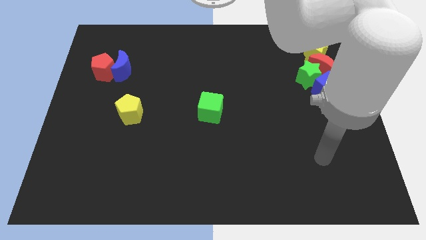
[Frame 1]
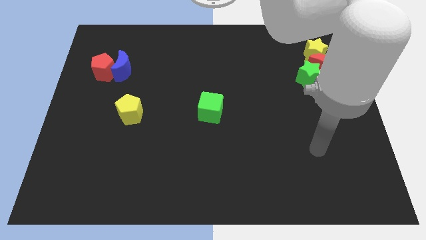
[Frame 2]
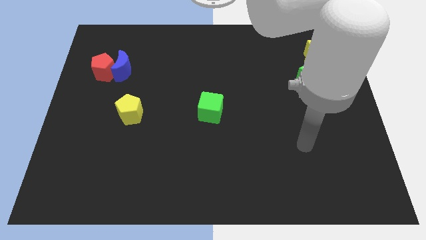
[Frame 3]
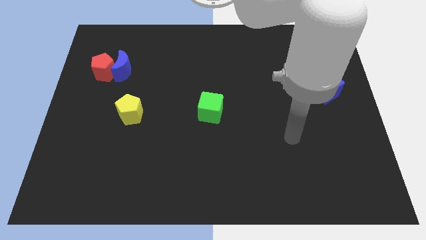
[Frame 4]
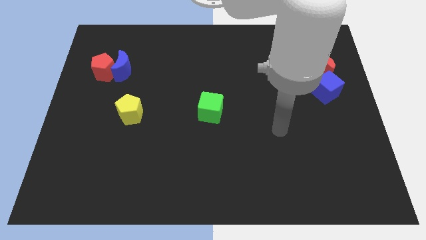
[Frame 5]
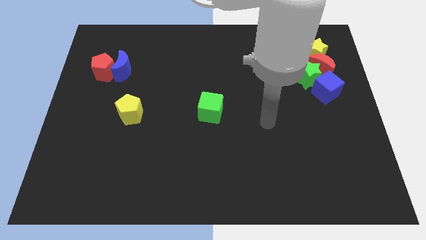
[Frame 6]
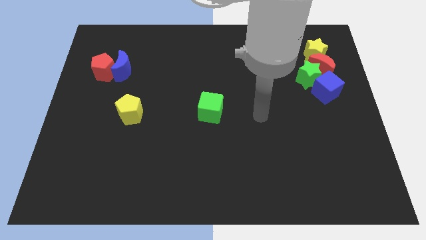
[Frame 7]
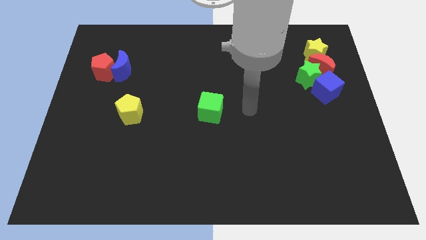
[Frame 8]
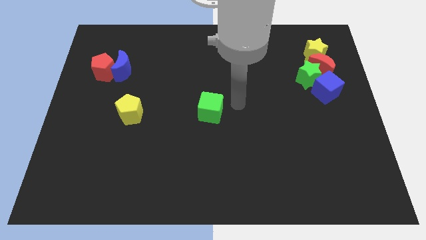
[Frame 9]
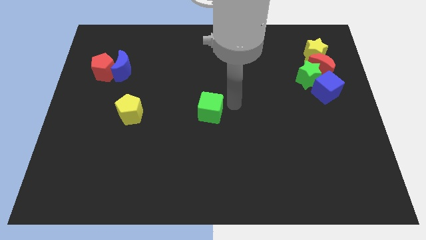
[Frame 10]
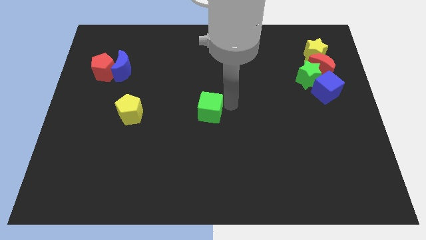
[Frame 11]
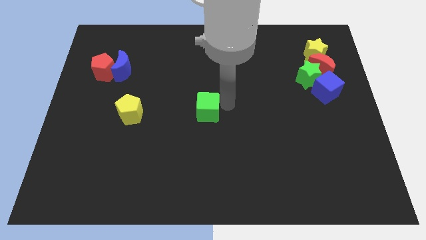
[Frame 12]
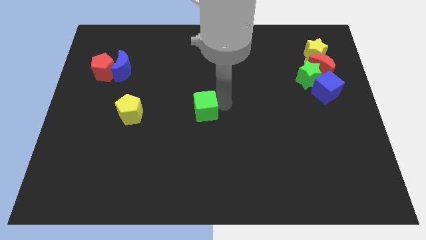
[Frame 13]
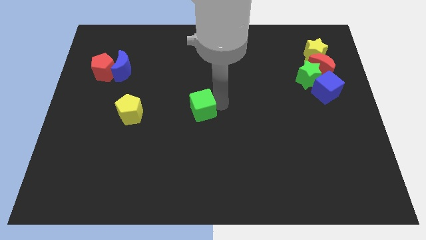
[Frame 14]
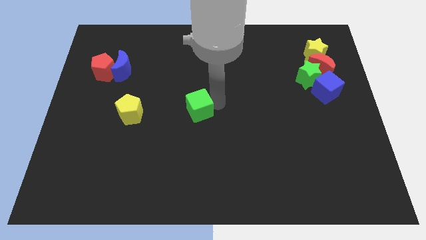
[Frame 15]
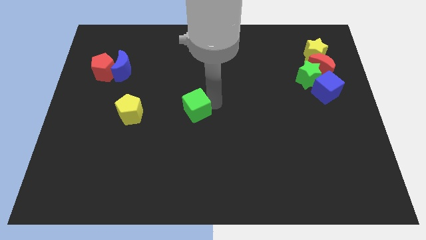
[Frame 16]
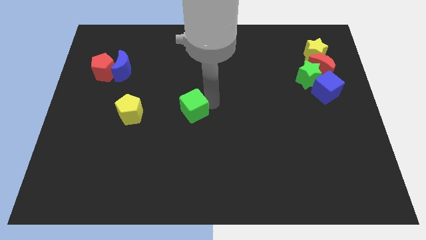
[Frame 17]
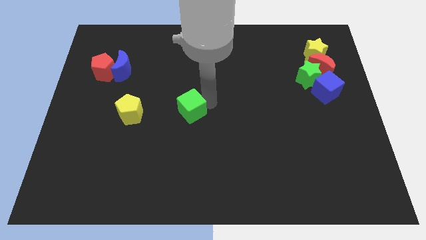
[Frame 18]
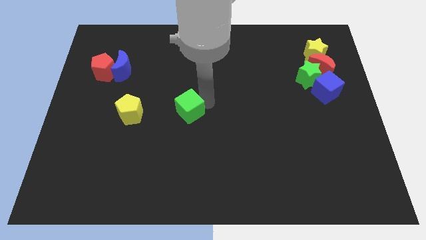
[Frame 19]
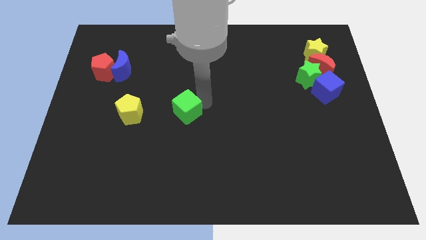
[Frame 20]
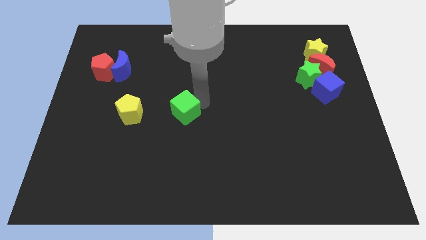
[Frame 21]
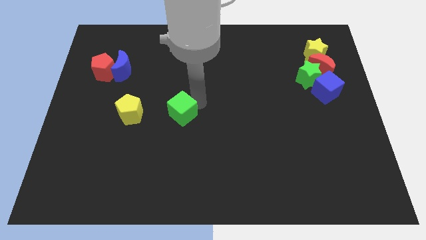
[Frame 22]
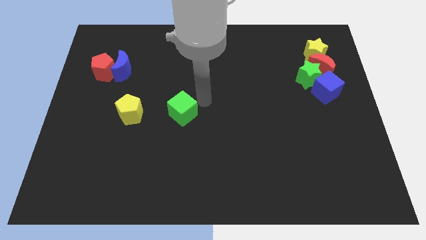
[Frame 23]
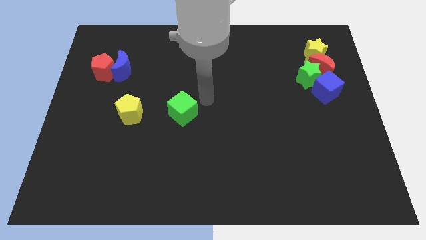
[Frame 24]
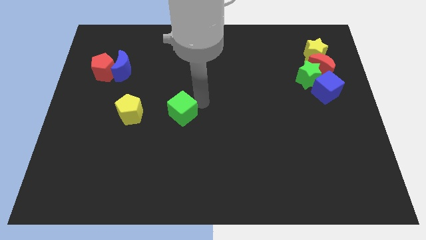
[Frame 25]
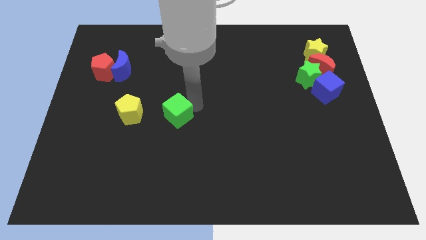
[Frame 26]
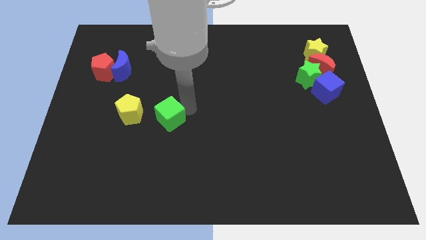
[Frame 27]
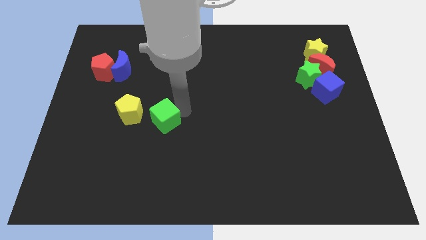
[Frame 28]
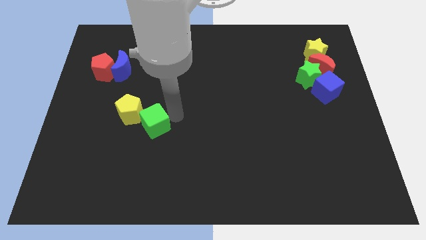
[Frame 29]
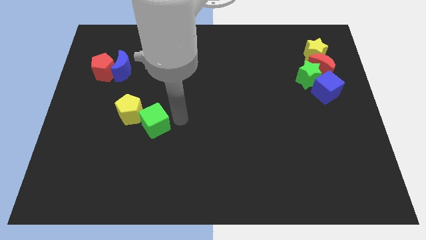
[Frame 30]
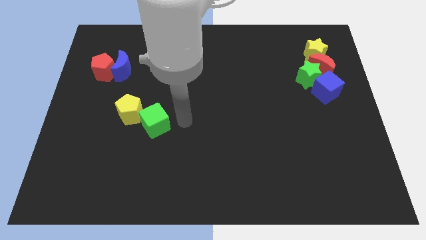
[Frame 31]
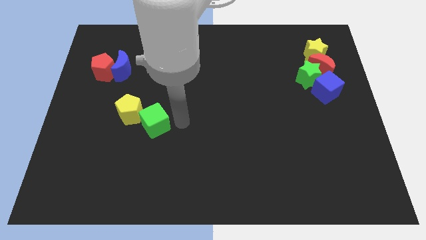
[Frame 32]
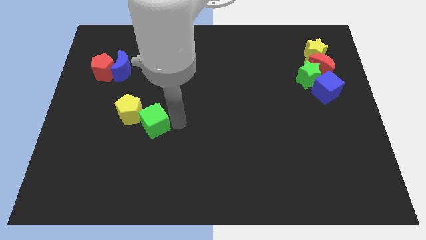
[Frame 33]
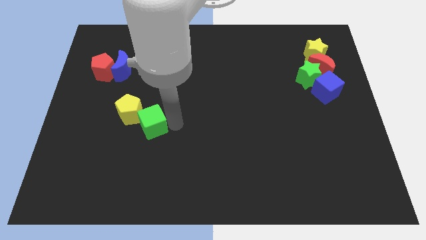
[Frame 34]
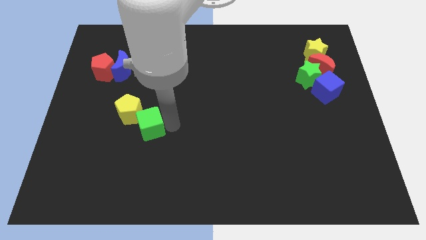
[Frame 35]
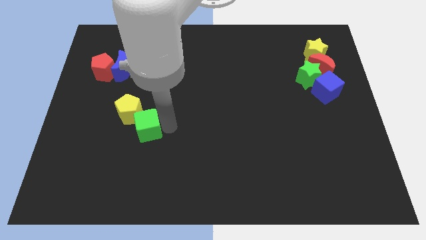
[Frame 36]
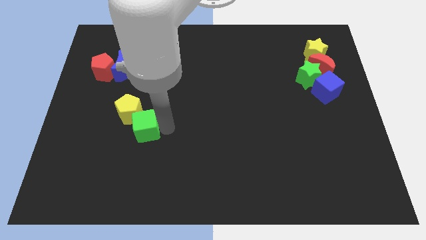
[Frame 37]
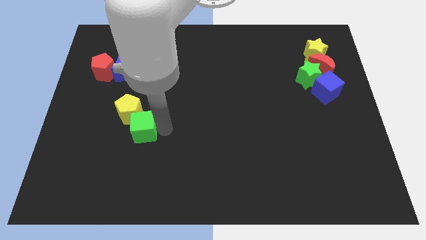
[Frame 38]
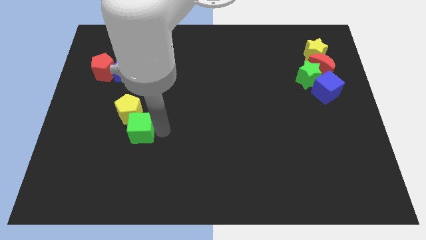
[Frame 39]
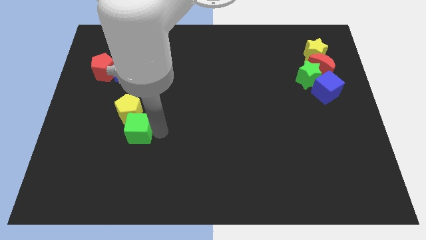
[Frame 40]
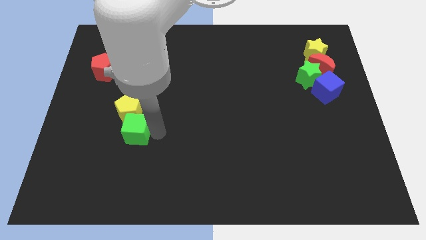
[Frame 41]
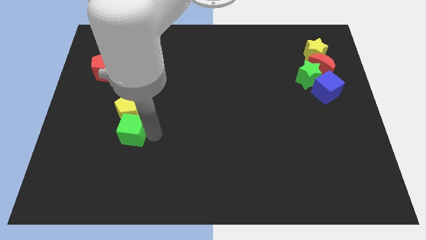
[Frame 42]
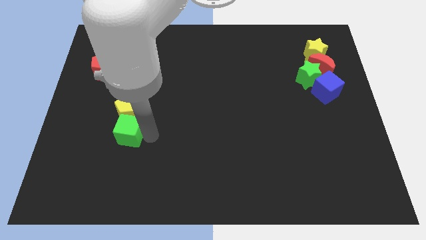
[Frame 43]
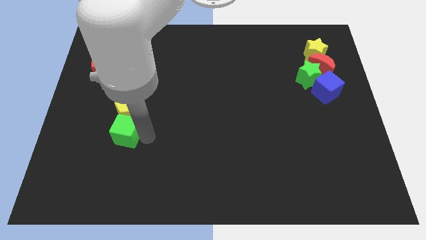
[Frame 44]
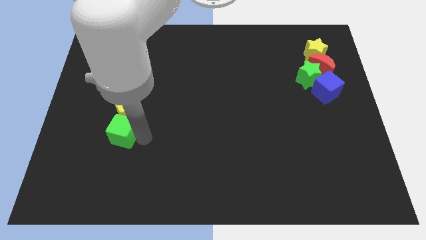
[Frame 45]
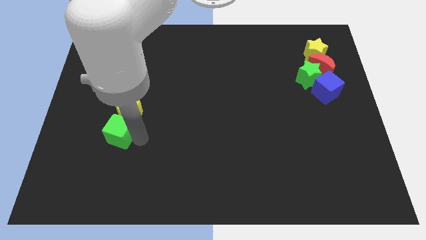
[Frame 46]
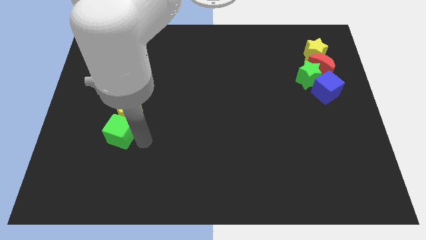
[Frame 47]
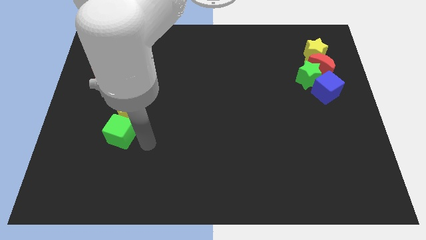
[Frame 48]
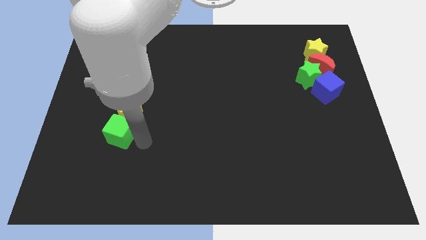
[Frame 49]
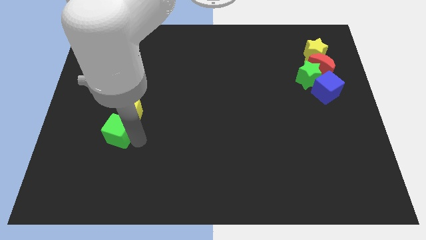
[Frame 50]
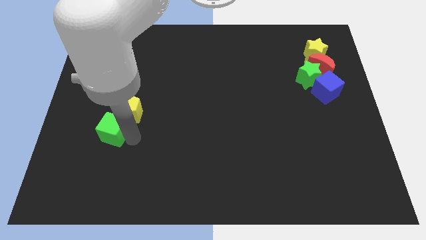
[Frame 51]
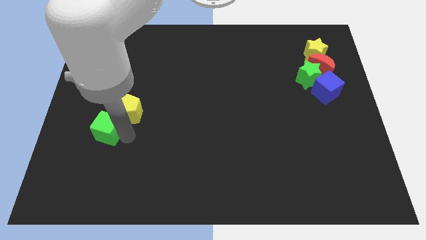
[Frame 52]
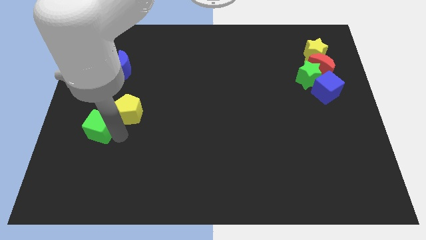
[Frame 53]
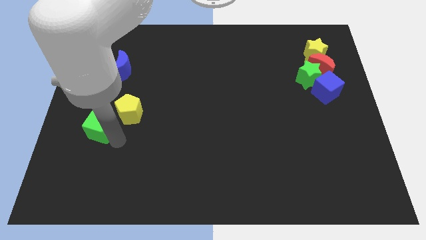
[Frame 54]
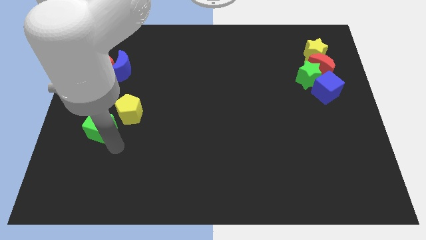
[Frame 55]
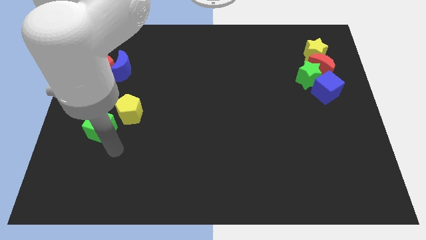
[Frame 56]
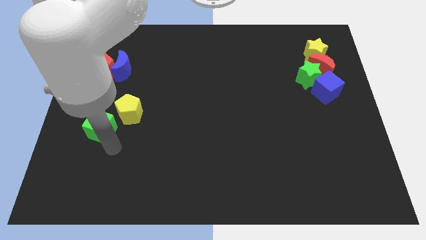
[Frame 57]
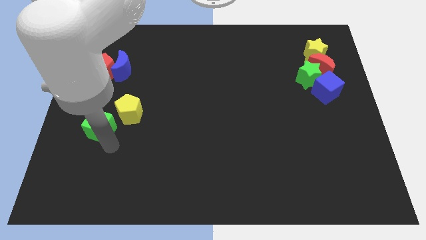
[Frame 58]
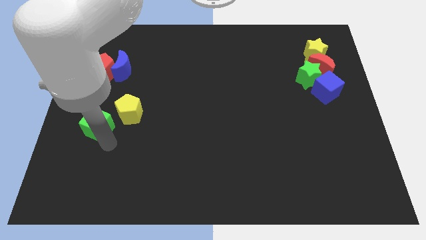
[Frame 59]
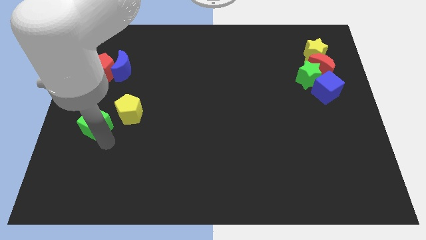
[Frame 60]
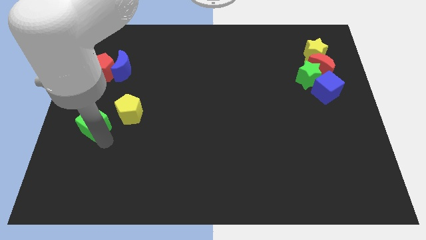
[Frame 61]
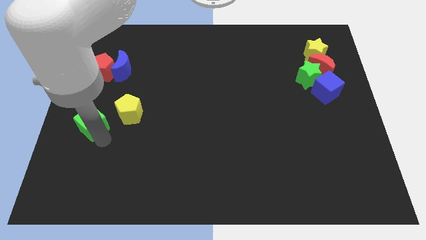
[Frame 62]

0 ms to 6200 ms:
slide the green cube to the left side

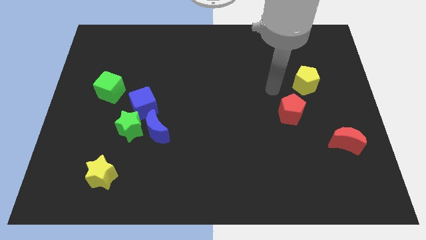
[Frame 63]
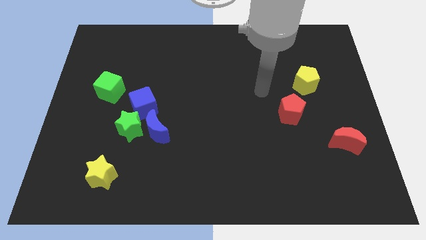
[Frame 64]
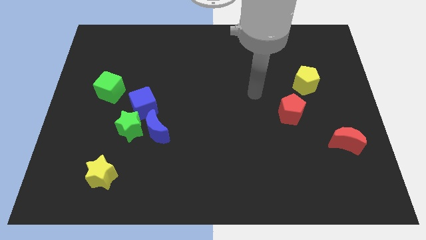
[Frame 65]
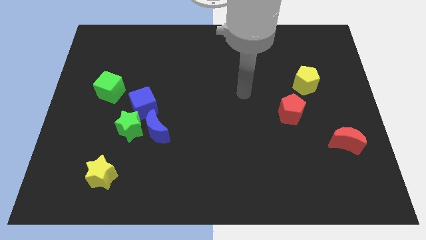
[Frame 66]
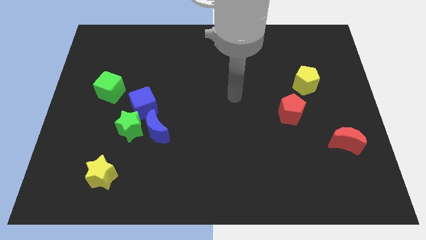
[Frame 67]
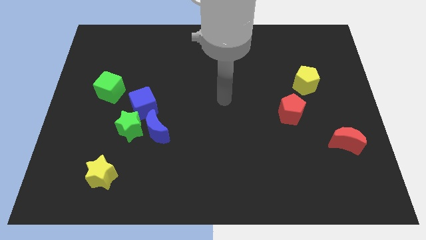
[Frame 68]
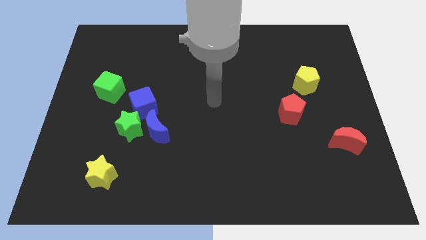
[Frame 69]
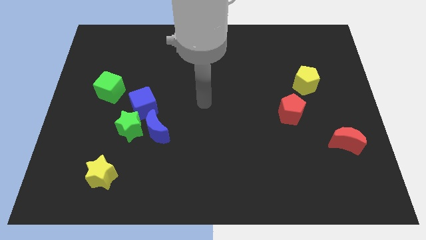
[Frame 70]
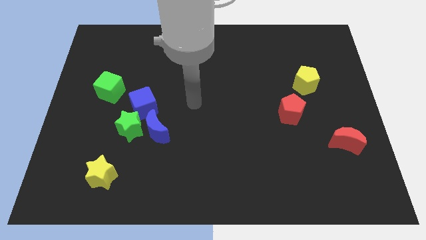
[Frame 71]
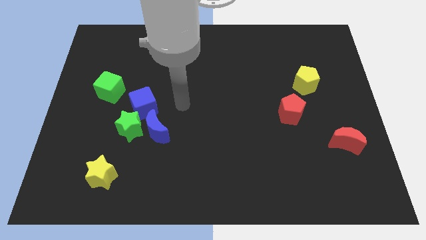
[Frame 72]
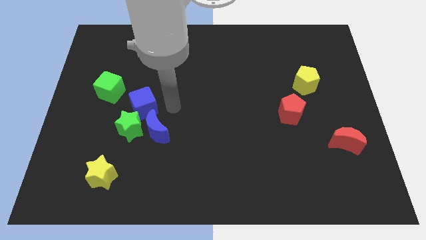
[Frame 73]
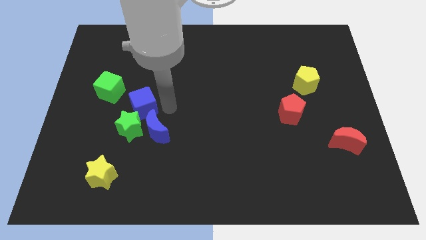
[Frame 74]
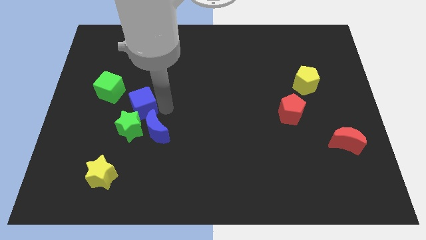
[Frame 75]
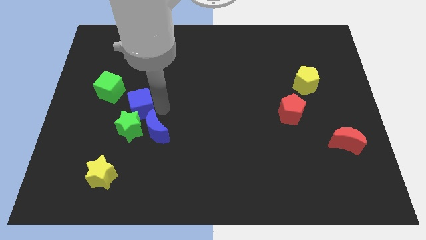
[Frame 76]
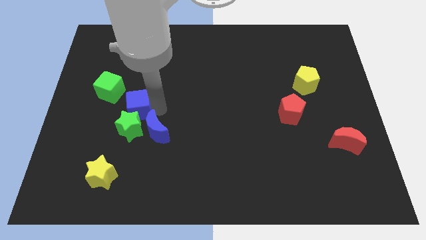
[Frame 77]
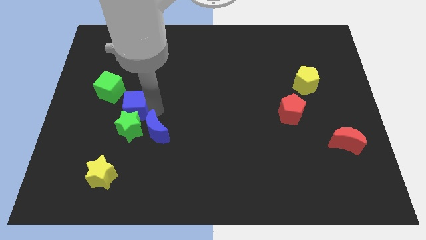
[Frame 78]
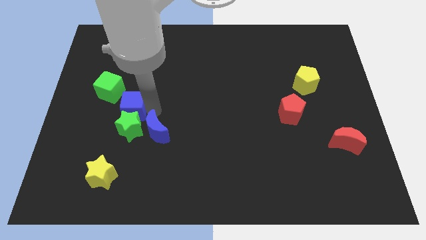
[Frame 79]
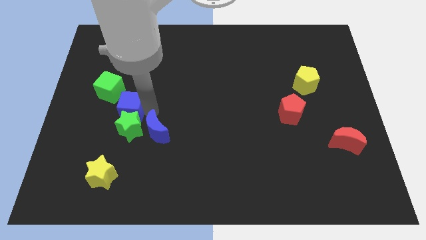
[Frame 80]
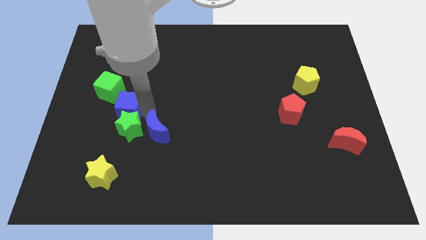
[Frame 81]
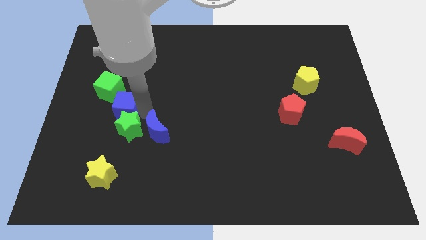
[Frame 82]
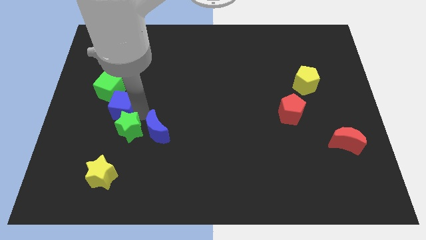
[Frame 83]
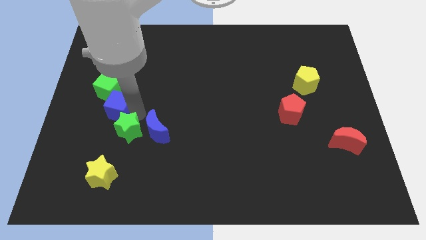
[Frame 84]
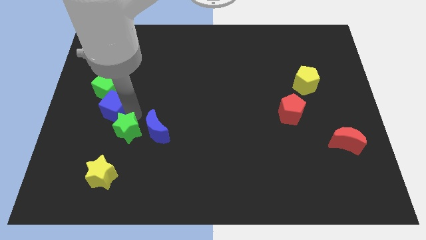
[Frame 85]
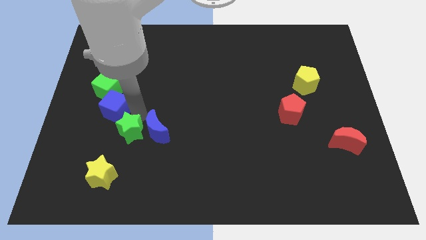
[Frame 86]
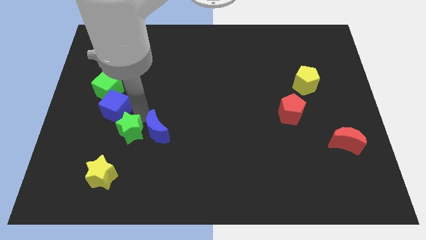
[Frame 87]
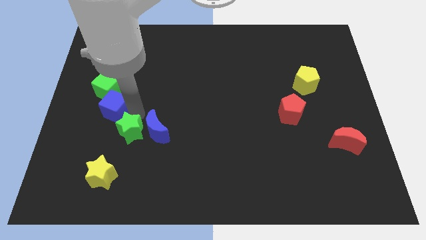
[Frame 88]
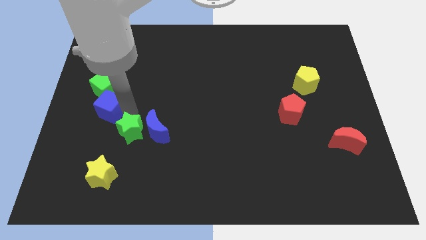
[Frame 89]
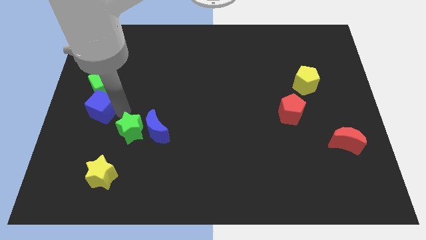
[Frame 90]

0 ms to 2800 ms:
push the blue cube to the center left
